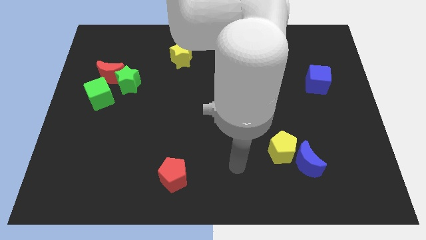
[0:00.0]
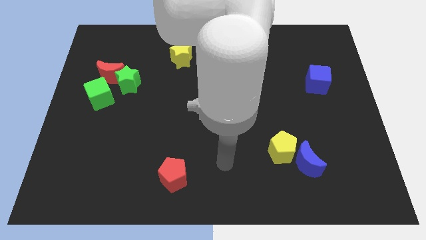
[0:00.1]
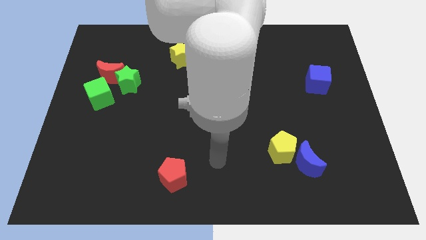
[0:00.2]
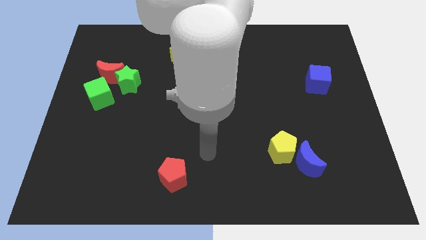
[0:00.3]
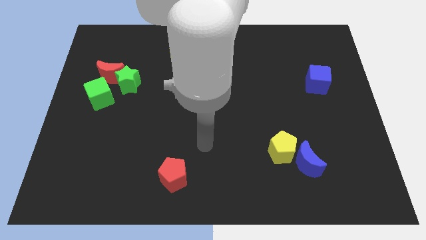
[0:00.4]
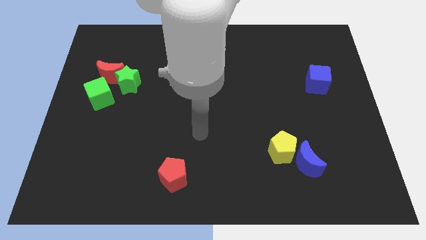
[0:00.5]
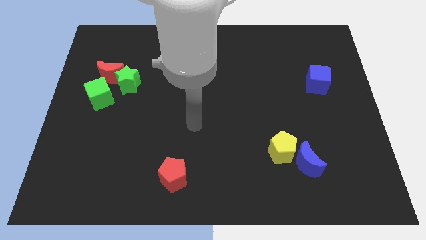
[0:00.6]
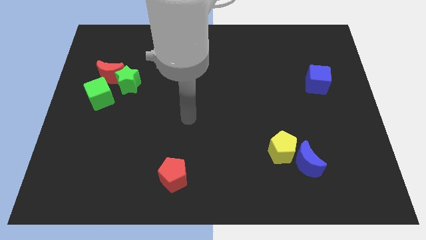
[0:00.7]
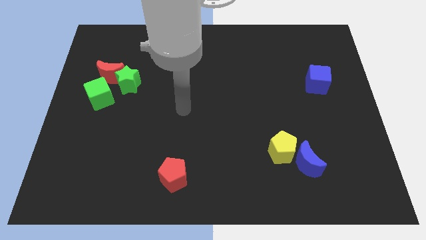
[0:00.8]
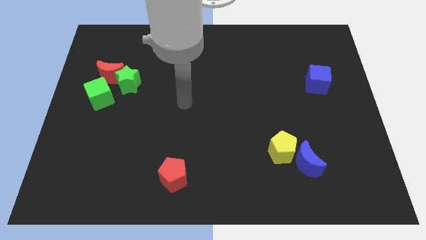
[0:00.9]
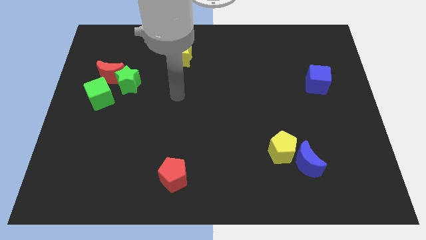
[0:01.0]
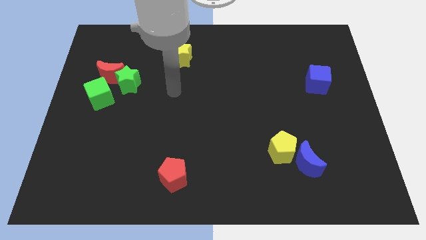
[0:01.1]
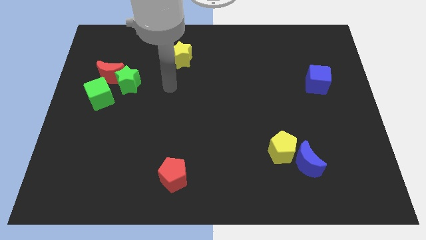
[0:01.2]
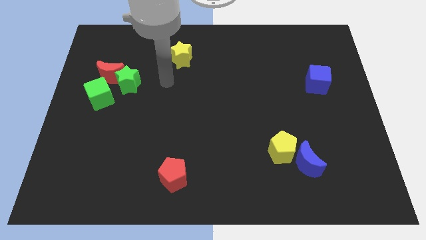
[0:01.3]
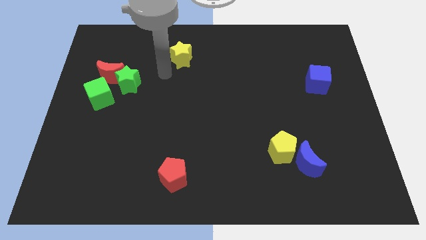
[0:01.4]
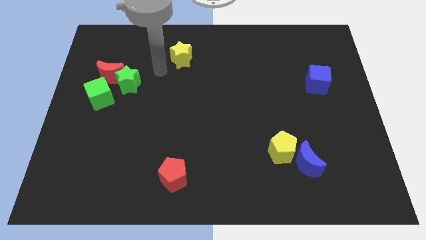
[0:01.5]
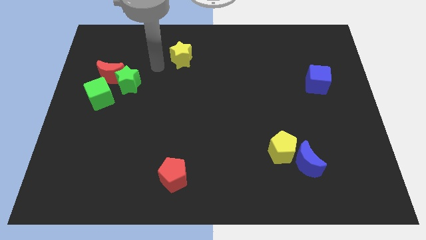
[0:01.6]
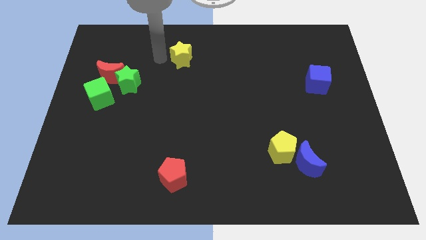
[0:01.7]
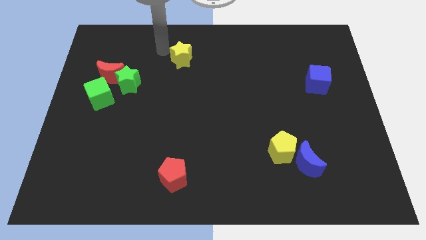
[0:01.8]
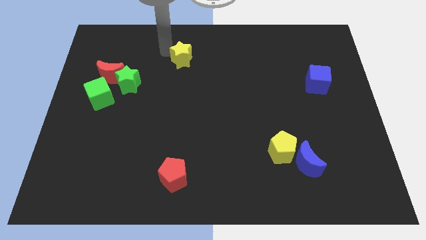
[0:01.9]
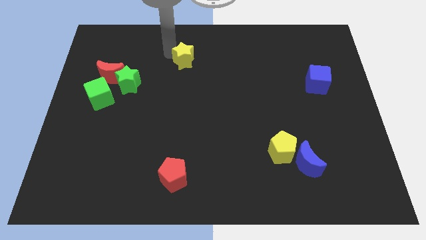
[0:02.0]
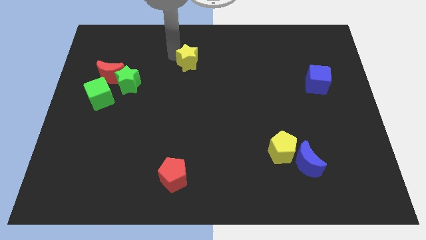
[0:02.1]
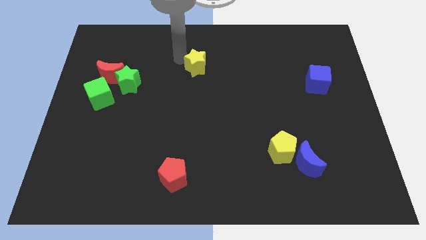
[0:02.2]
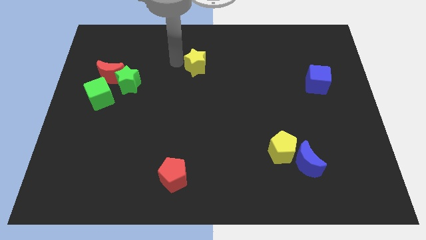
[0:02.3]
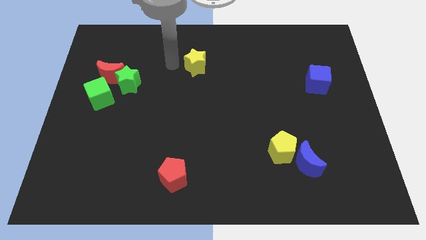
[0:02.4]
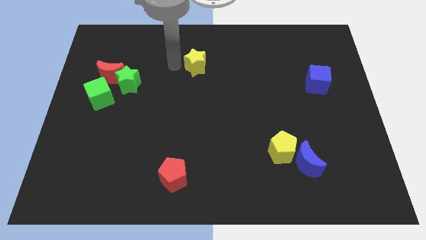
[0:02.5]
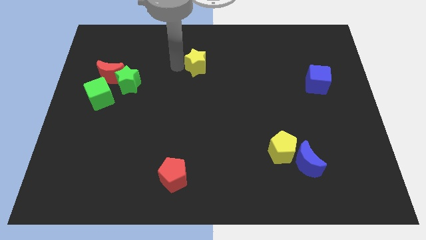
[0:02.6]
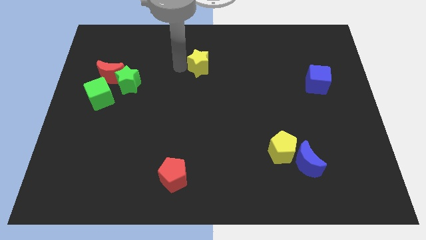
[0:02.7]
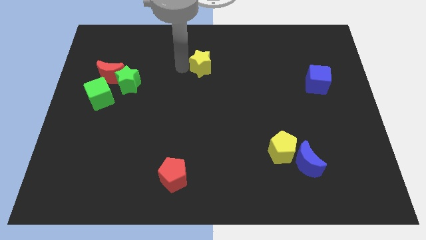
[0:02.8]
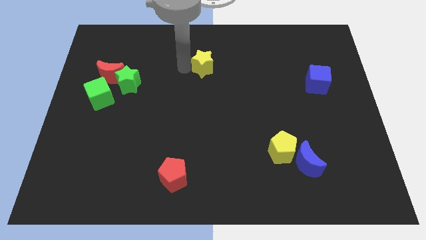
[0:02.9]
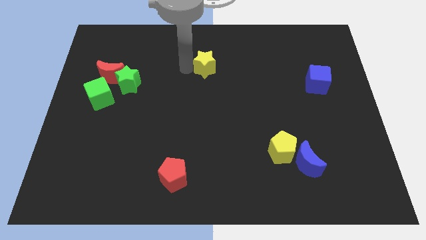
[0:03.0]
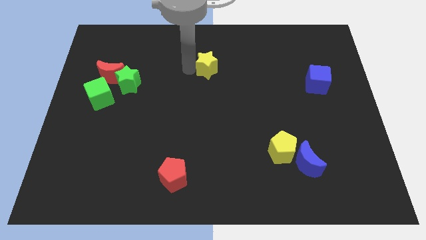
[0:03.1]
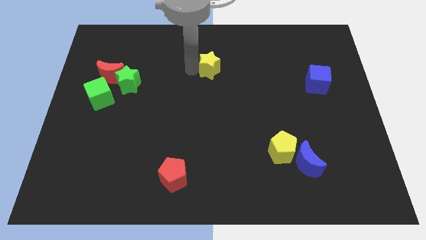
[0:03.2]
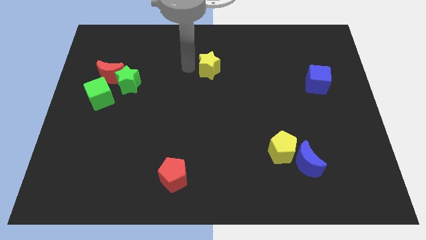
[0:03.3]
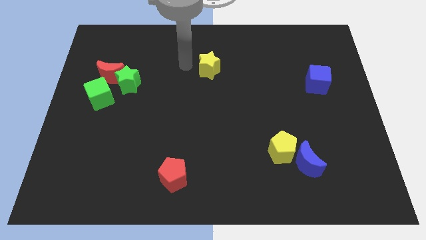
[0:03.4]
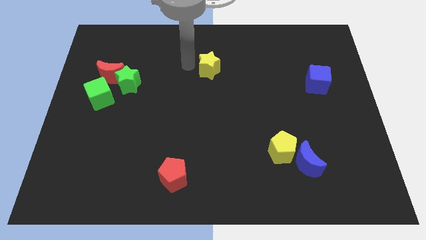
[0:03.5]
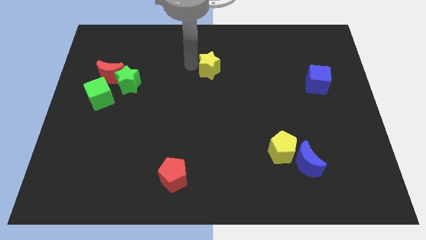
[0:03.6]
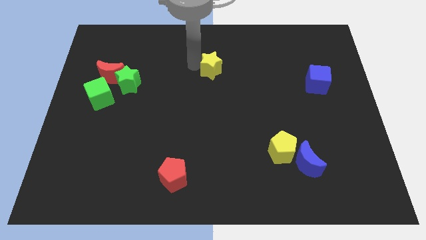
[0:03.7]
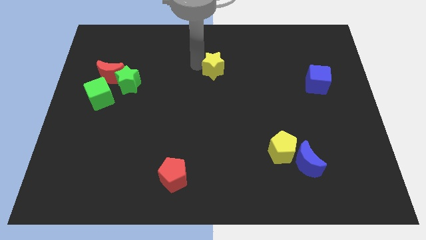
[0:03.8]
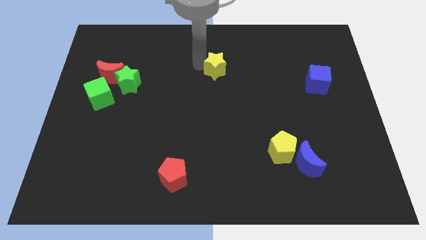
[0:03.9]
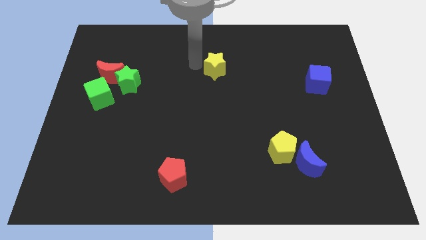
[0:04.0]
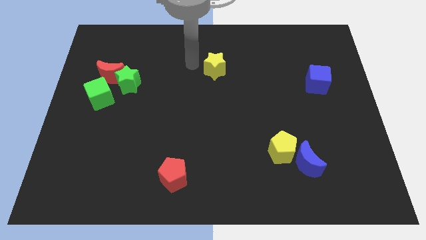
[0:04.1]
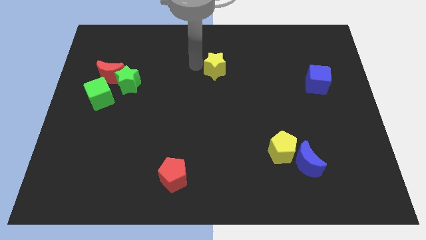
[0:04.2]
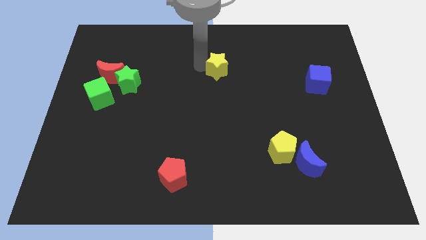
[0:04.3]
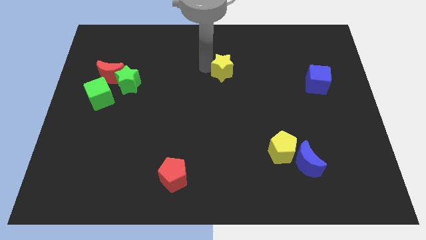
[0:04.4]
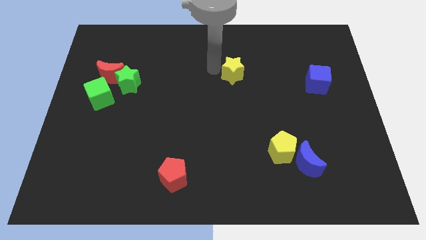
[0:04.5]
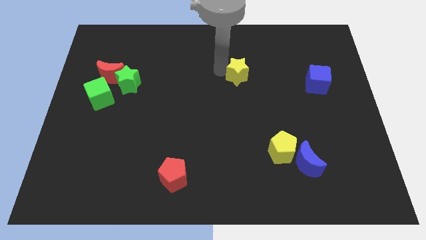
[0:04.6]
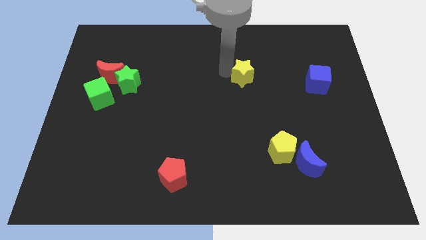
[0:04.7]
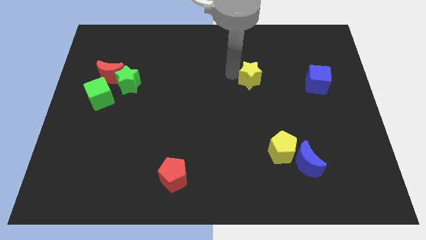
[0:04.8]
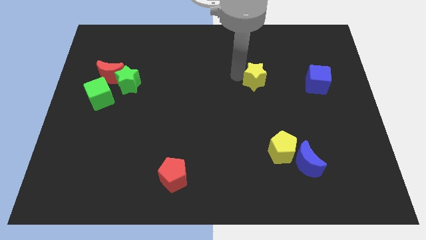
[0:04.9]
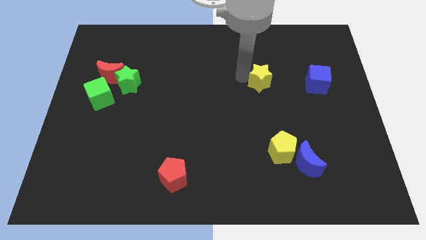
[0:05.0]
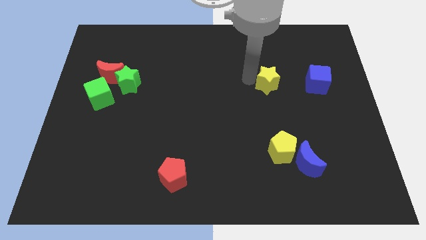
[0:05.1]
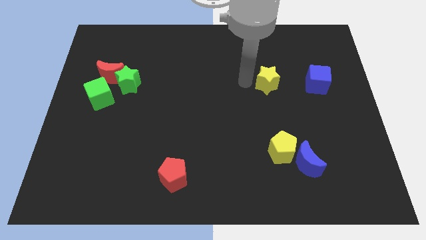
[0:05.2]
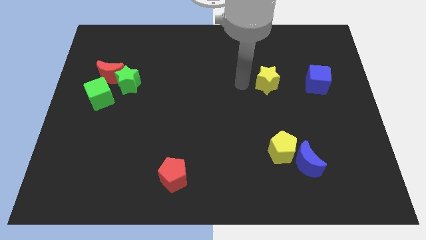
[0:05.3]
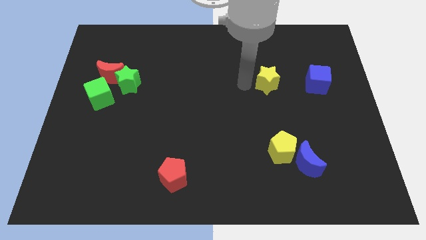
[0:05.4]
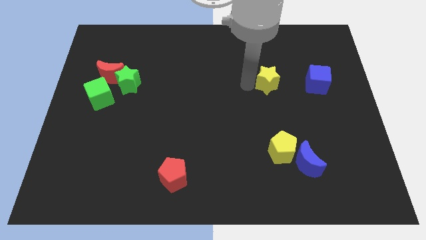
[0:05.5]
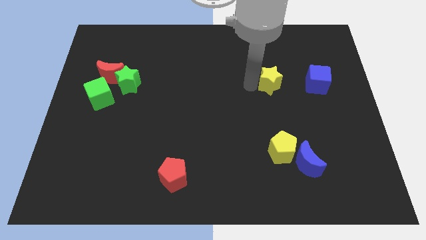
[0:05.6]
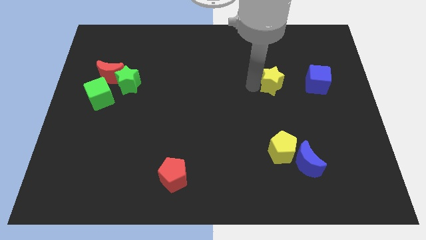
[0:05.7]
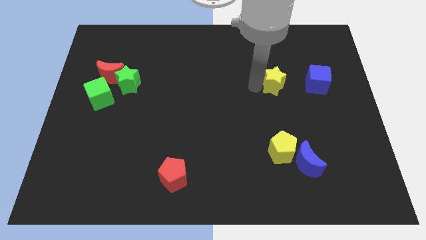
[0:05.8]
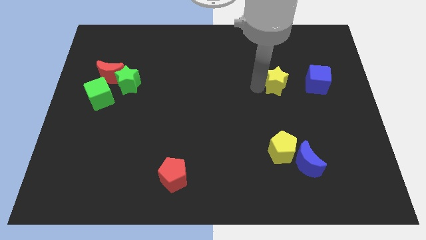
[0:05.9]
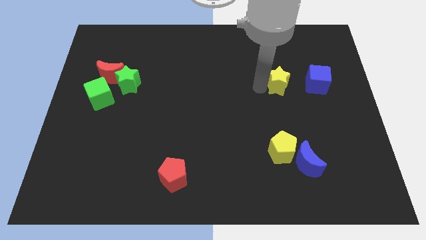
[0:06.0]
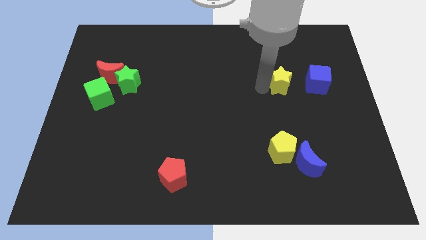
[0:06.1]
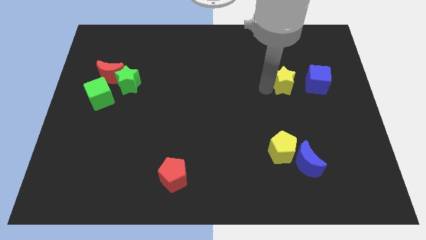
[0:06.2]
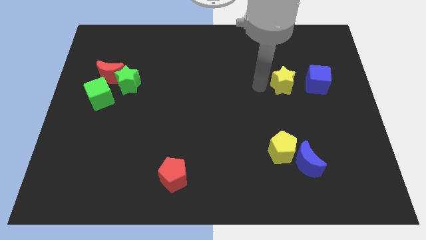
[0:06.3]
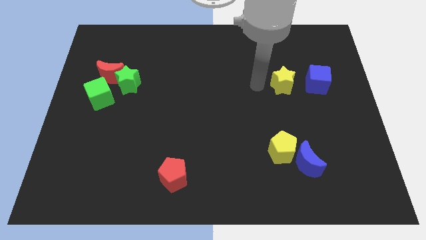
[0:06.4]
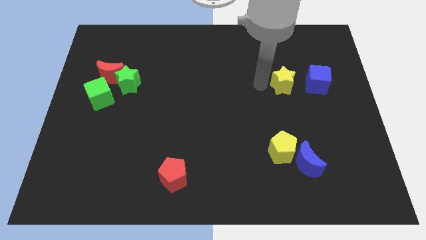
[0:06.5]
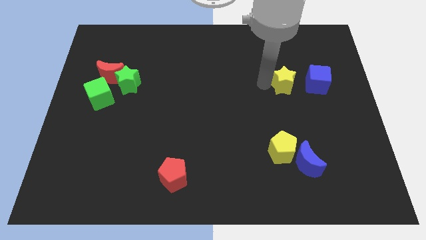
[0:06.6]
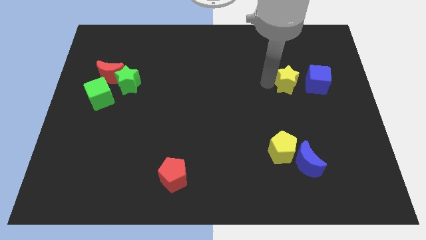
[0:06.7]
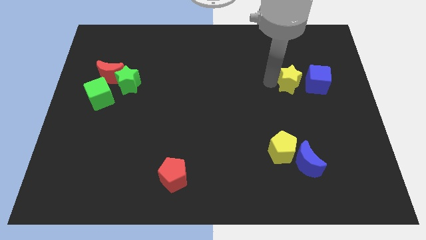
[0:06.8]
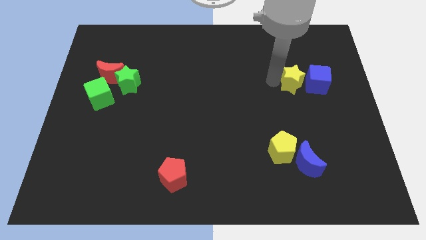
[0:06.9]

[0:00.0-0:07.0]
push the yellow star towards the blue cube
